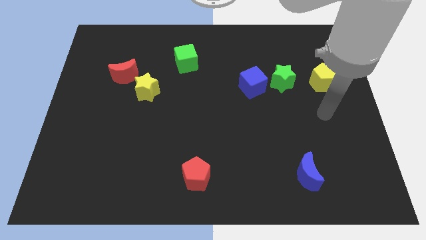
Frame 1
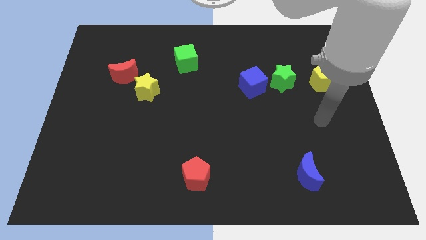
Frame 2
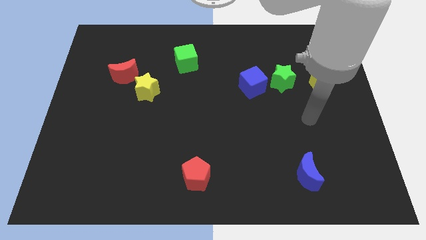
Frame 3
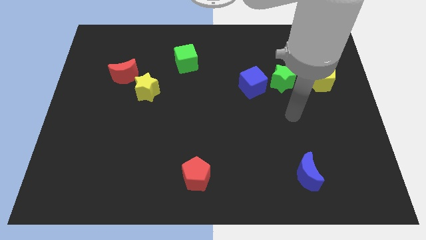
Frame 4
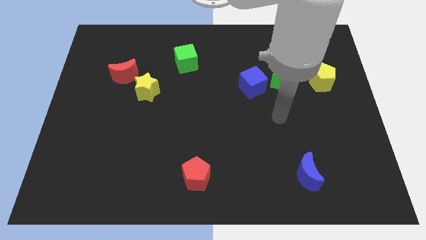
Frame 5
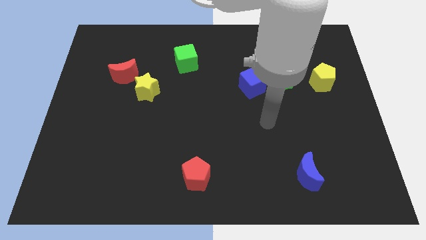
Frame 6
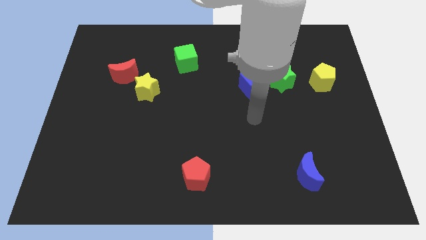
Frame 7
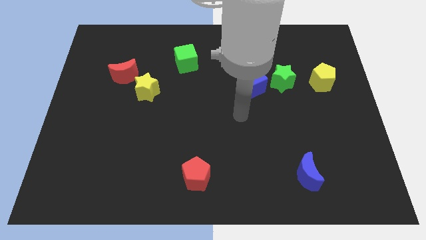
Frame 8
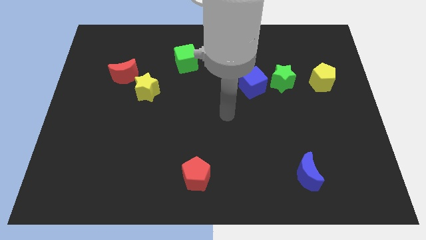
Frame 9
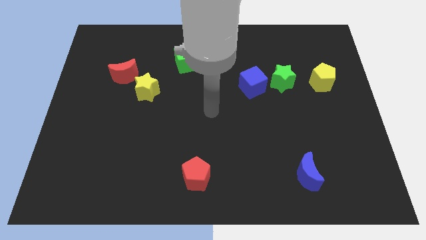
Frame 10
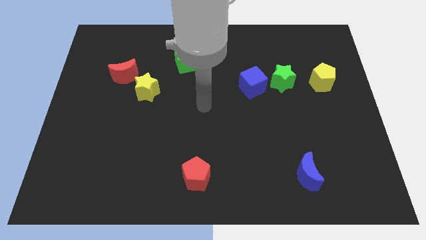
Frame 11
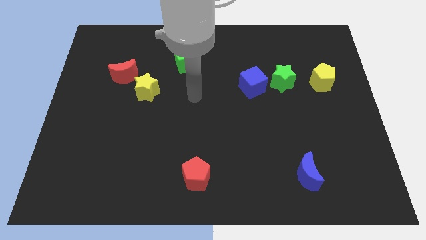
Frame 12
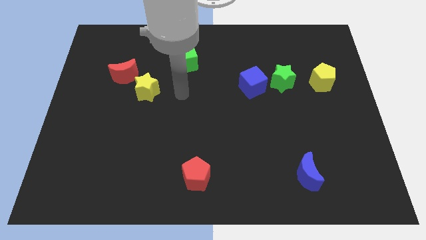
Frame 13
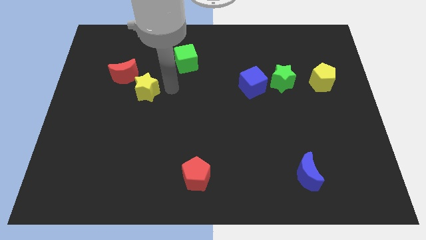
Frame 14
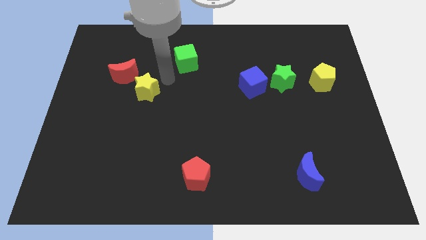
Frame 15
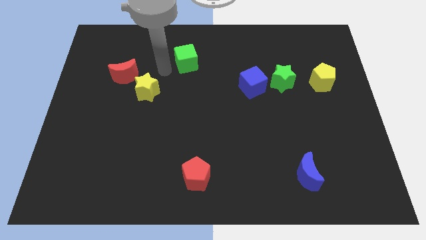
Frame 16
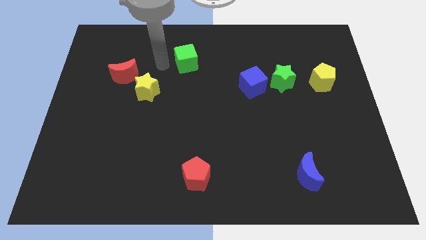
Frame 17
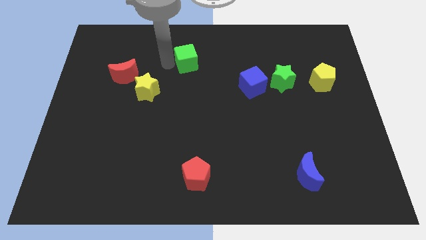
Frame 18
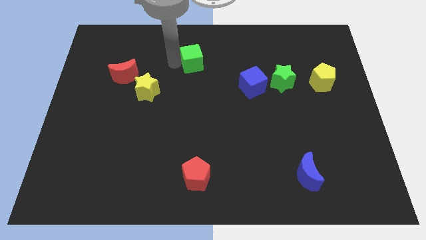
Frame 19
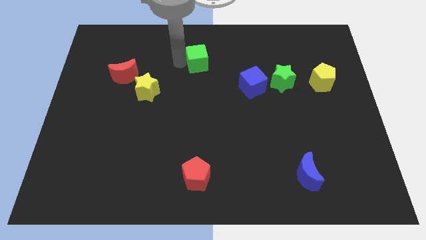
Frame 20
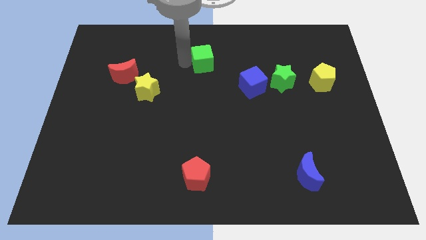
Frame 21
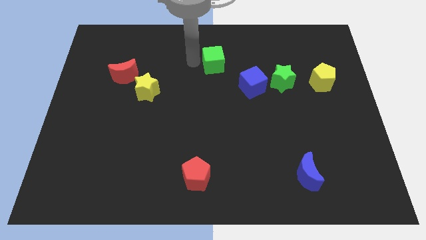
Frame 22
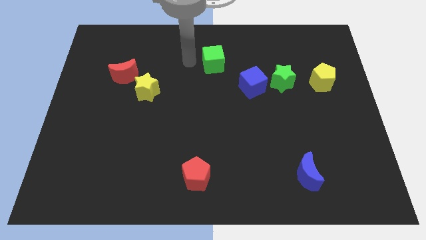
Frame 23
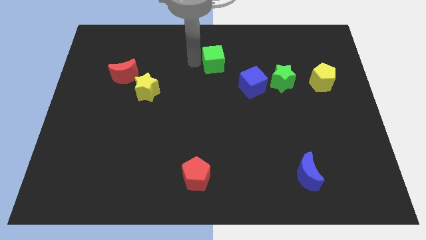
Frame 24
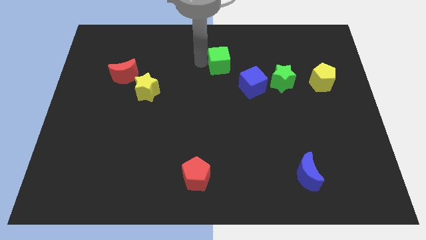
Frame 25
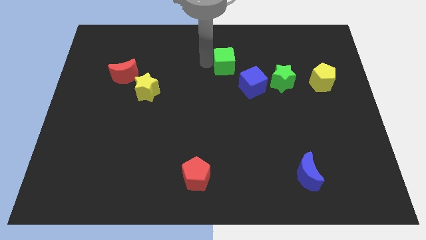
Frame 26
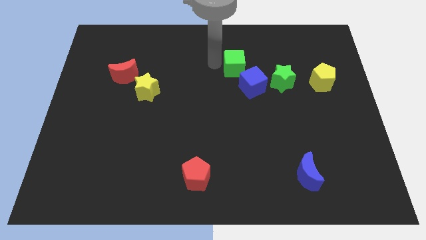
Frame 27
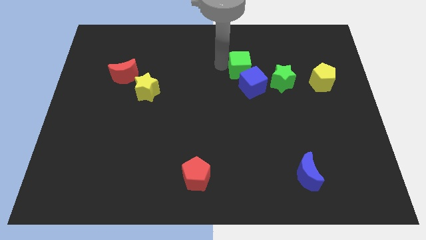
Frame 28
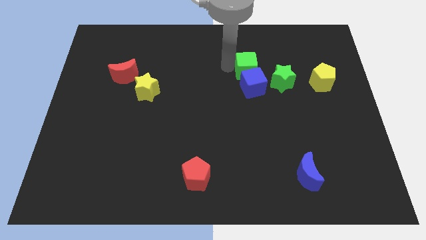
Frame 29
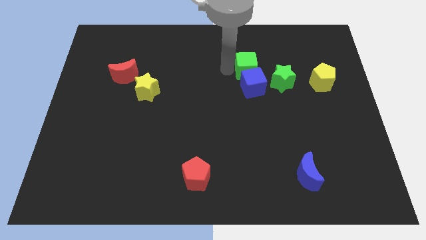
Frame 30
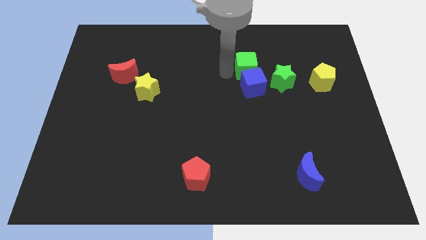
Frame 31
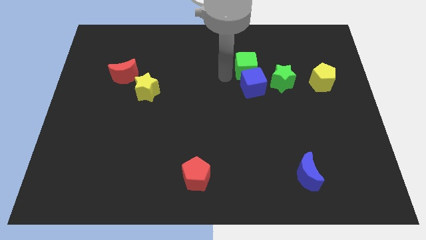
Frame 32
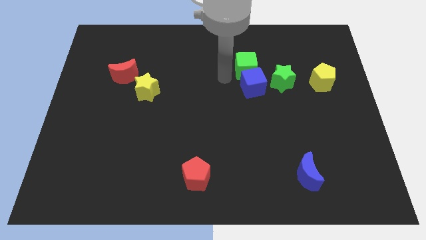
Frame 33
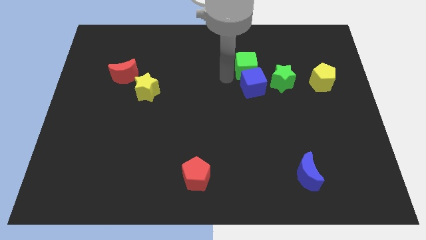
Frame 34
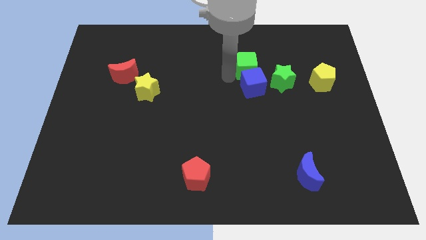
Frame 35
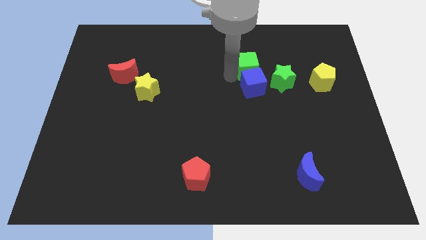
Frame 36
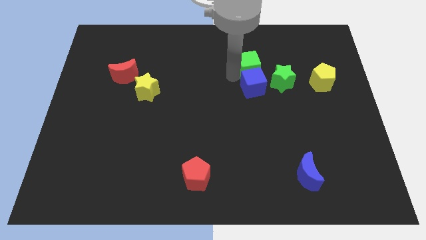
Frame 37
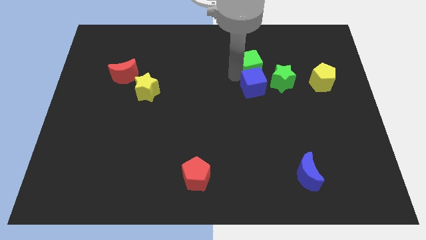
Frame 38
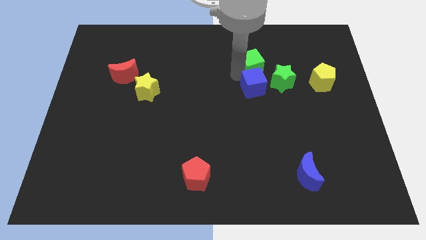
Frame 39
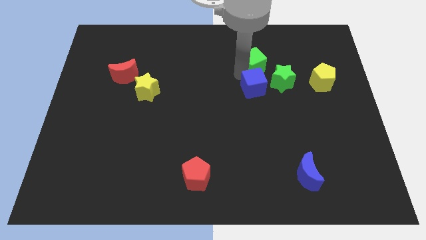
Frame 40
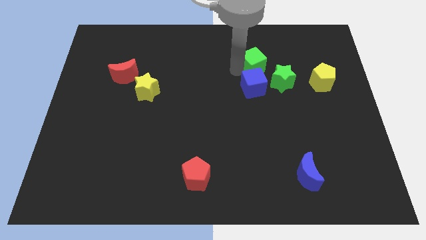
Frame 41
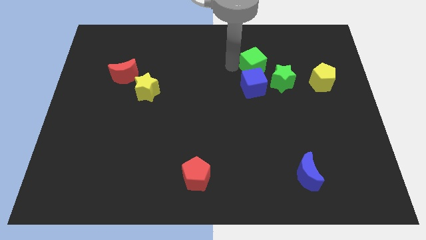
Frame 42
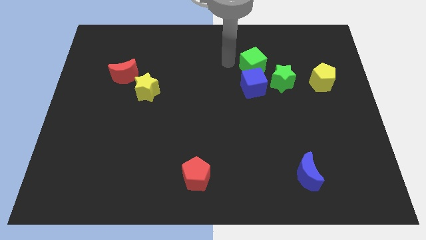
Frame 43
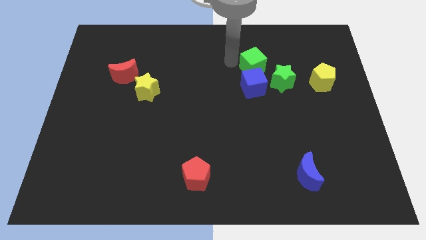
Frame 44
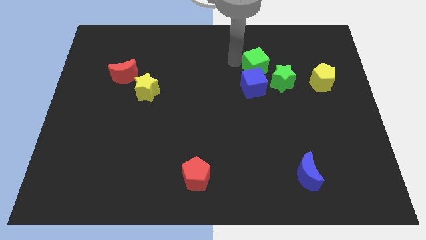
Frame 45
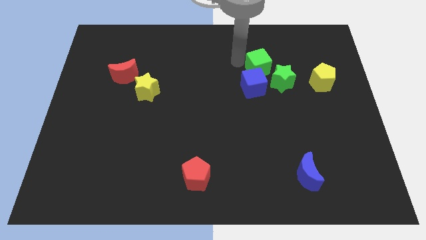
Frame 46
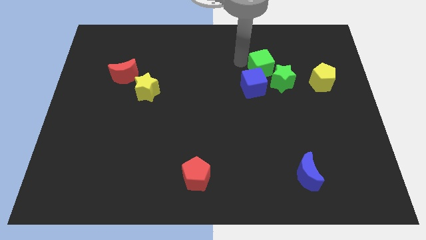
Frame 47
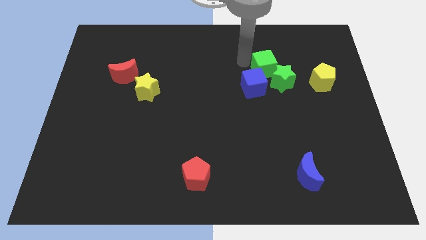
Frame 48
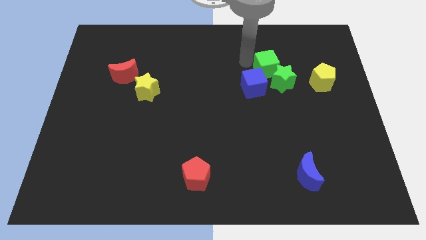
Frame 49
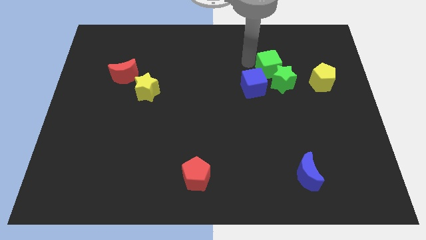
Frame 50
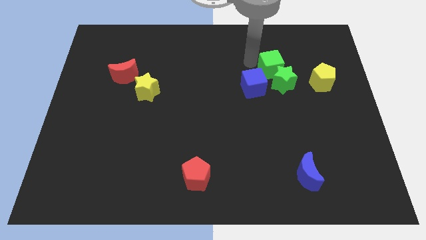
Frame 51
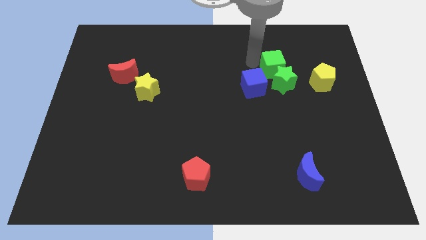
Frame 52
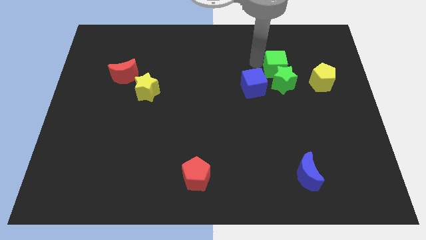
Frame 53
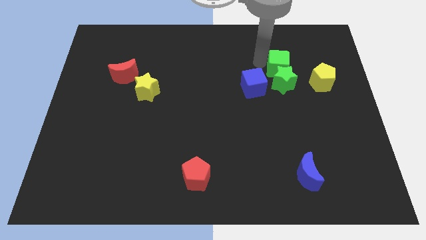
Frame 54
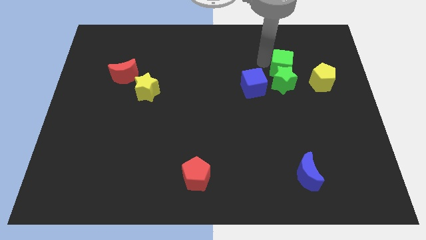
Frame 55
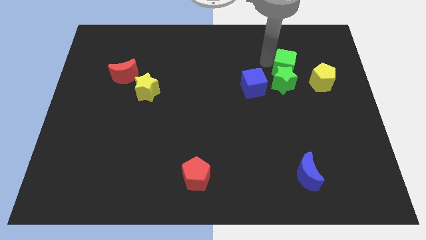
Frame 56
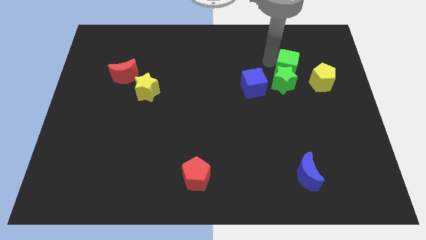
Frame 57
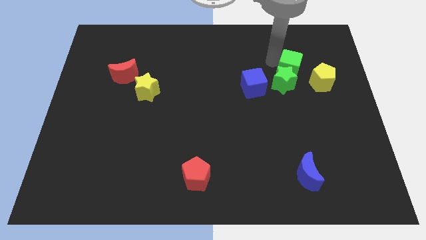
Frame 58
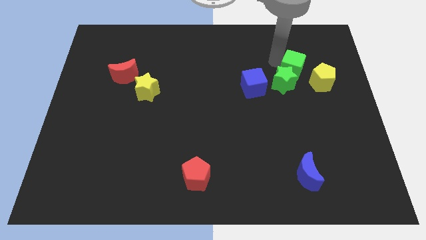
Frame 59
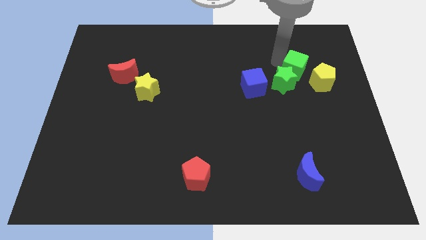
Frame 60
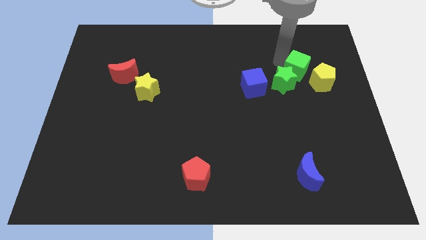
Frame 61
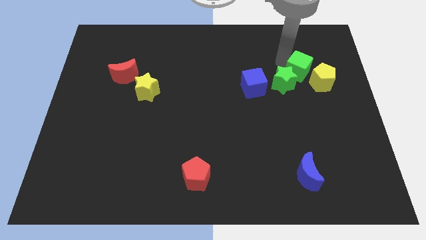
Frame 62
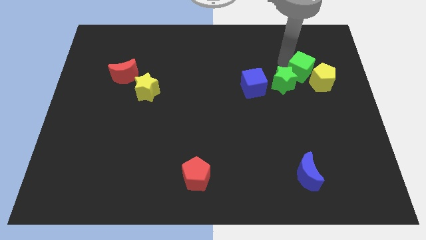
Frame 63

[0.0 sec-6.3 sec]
move the green cube towards the yellow pentagon

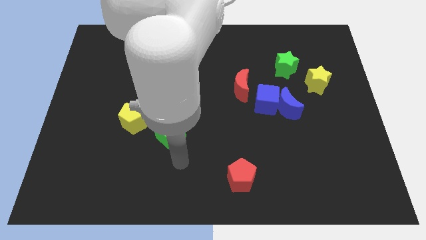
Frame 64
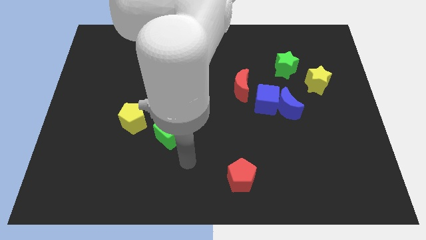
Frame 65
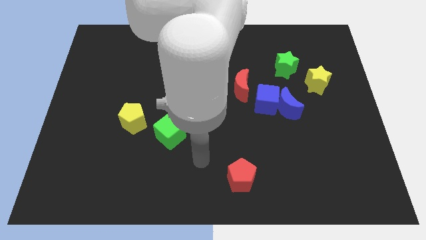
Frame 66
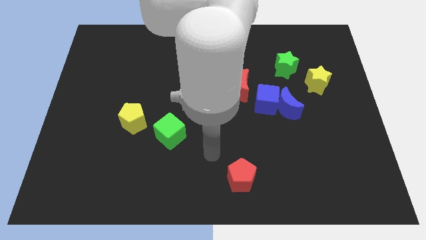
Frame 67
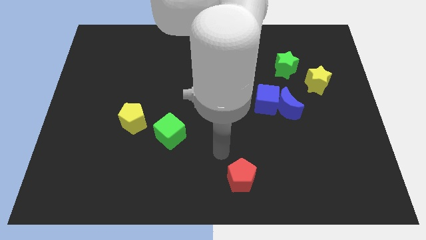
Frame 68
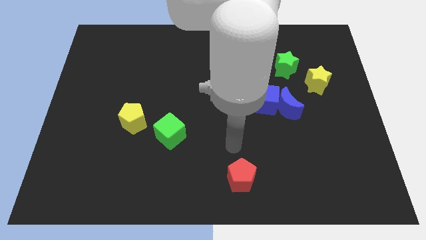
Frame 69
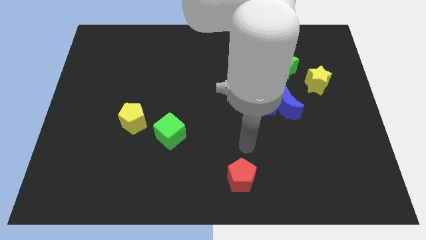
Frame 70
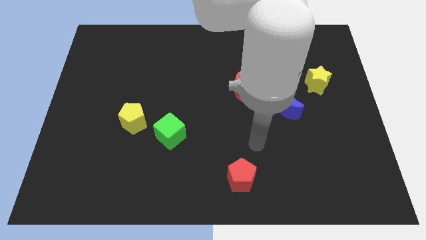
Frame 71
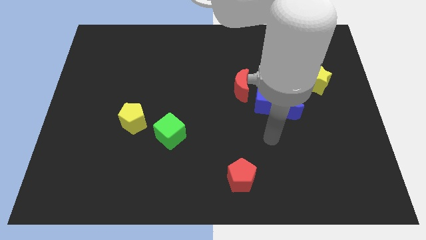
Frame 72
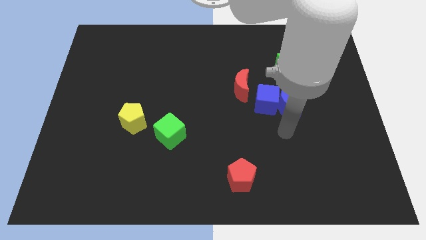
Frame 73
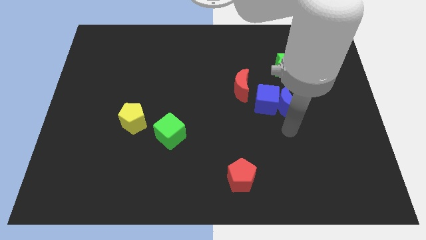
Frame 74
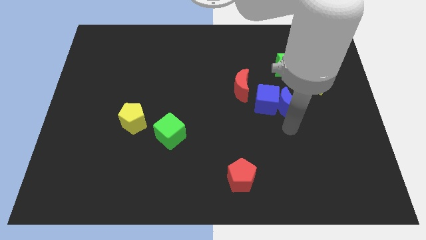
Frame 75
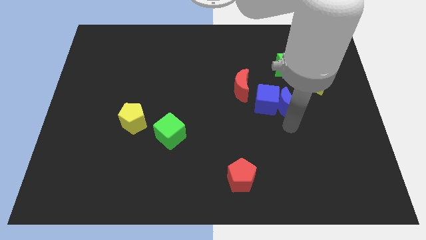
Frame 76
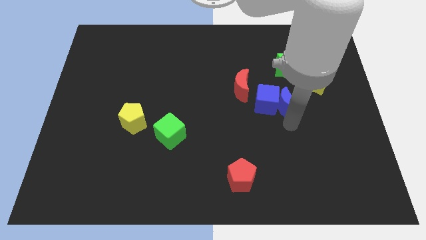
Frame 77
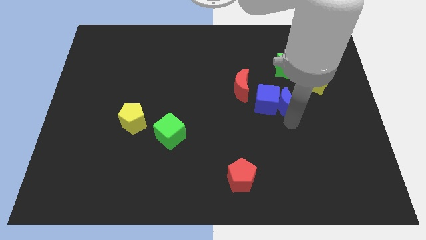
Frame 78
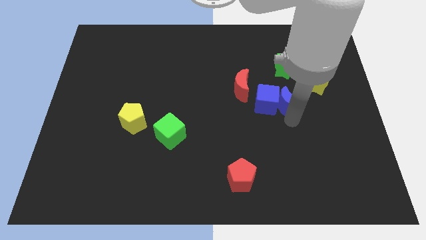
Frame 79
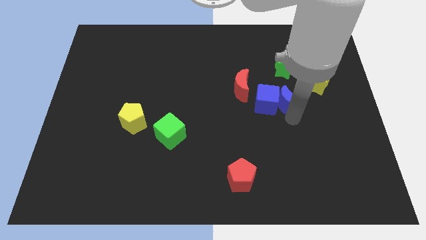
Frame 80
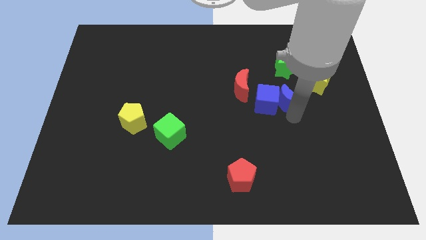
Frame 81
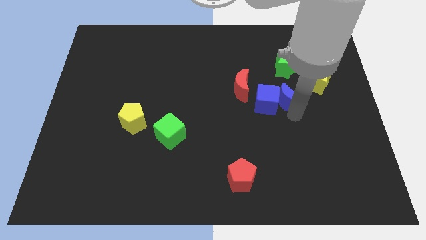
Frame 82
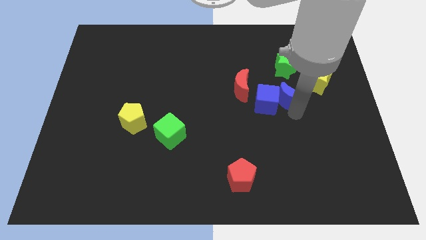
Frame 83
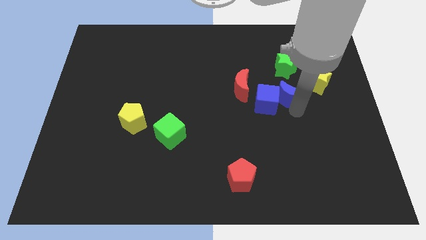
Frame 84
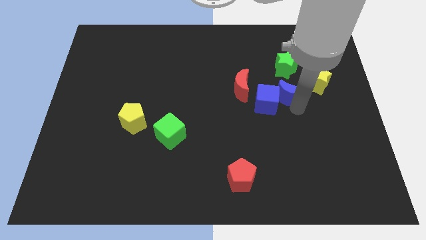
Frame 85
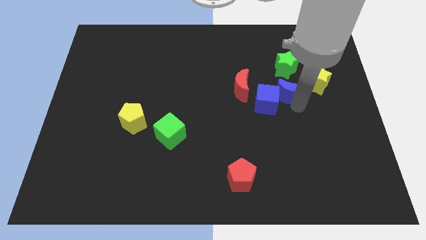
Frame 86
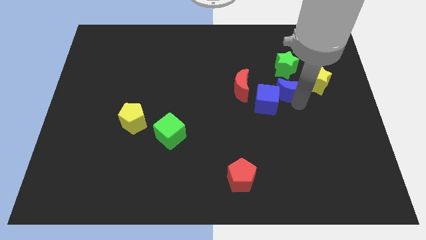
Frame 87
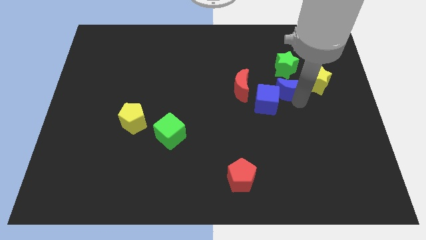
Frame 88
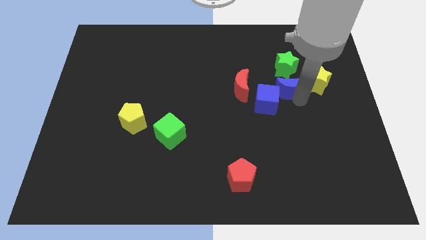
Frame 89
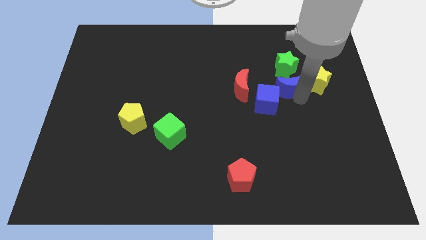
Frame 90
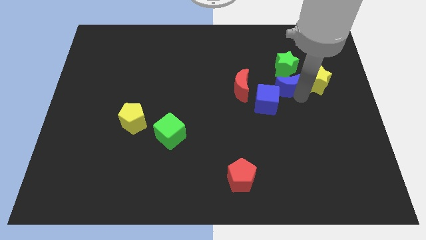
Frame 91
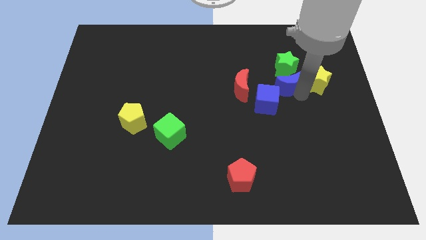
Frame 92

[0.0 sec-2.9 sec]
move the blue moon next to the green star
